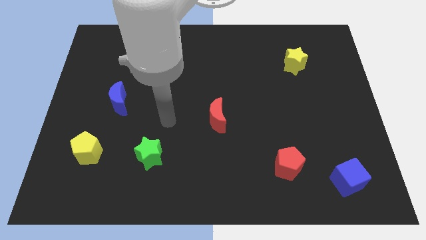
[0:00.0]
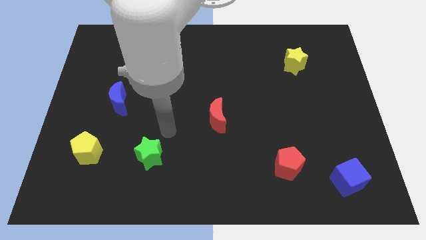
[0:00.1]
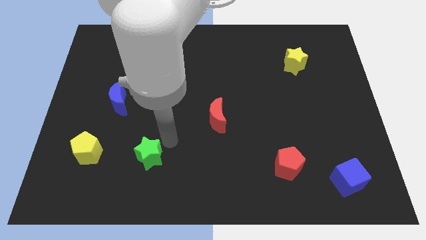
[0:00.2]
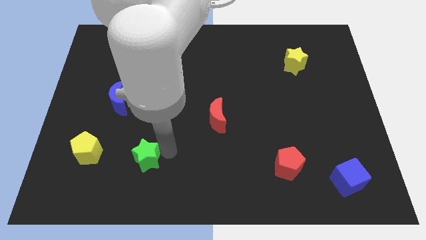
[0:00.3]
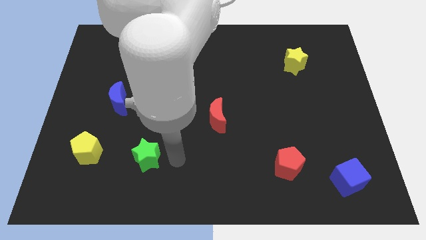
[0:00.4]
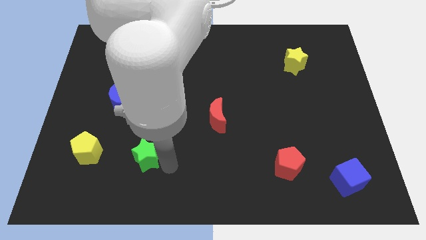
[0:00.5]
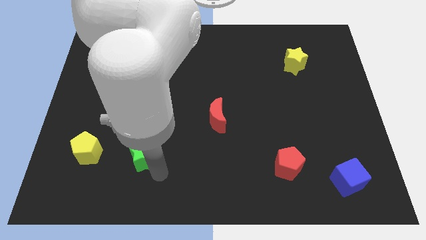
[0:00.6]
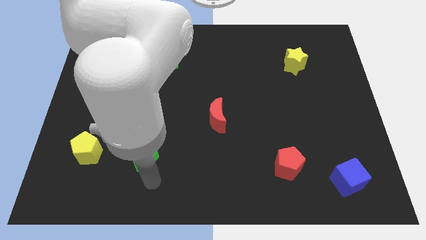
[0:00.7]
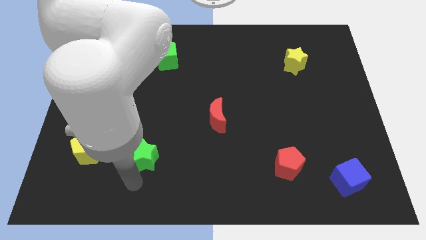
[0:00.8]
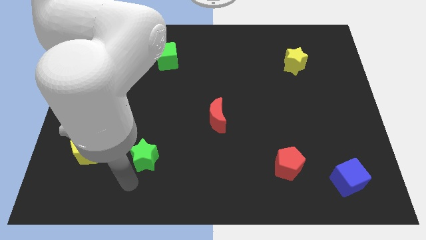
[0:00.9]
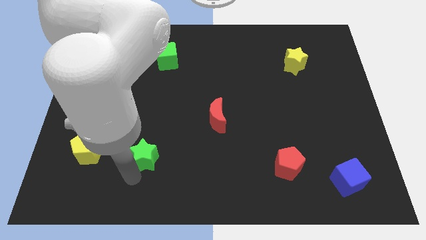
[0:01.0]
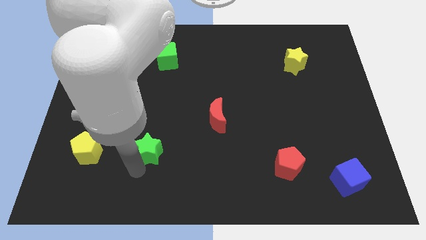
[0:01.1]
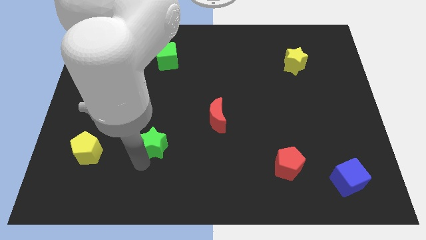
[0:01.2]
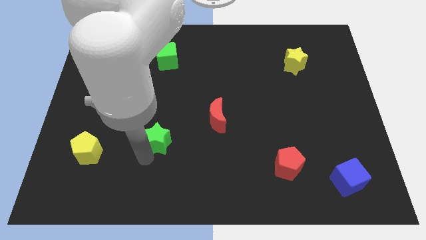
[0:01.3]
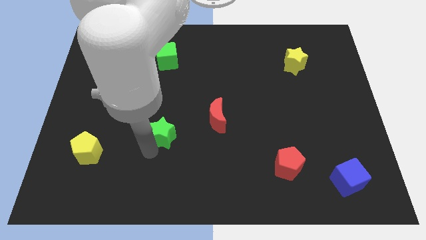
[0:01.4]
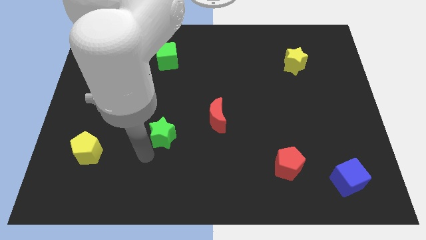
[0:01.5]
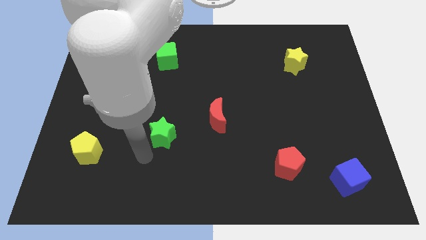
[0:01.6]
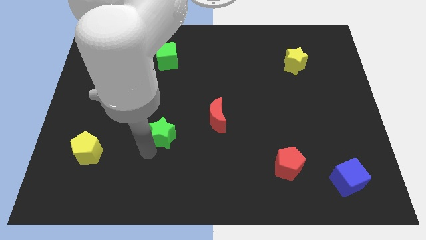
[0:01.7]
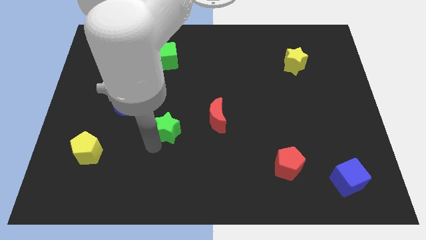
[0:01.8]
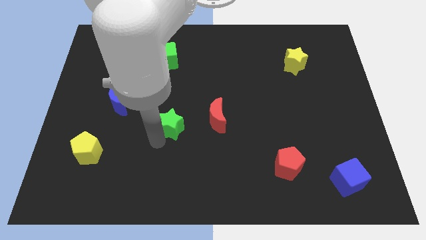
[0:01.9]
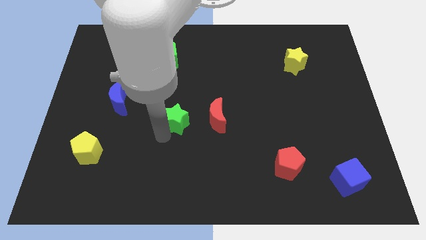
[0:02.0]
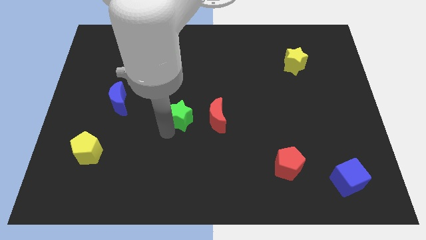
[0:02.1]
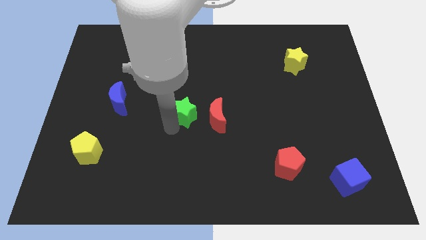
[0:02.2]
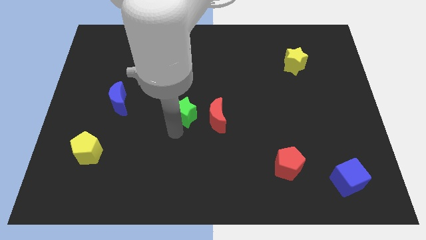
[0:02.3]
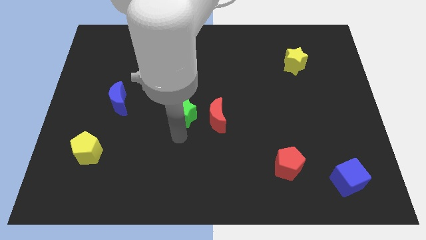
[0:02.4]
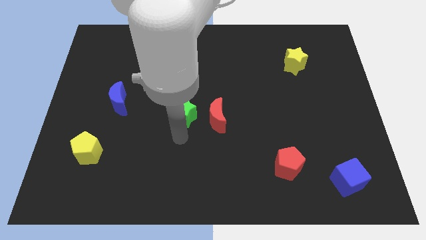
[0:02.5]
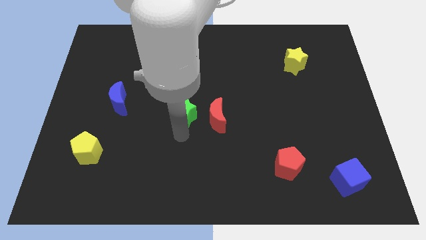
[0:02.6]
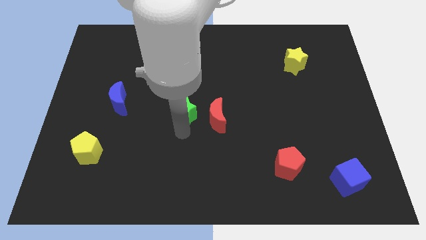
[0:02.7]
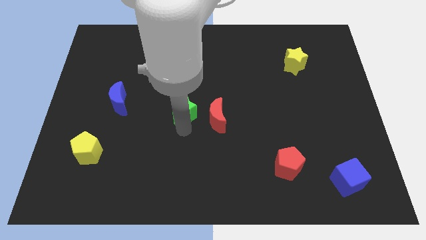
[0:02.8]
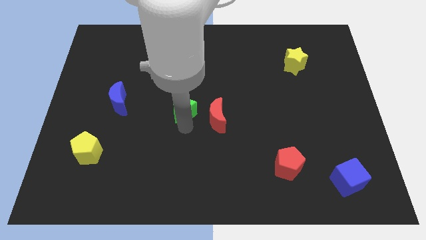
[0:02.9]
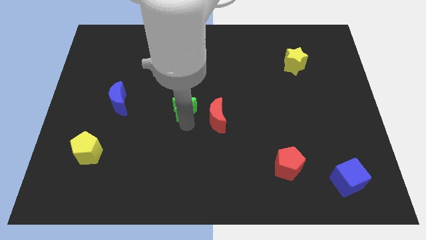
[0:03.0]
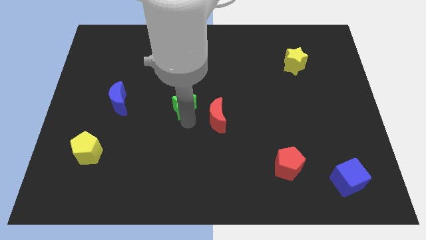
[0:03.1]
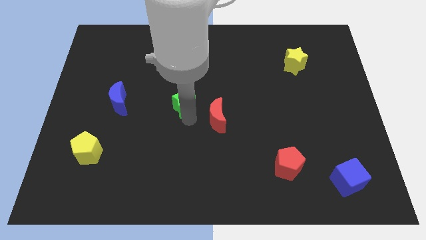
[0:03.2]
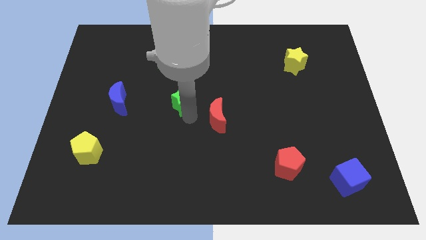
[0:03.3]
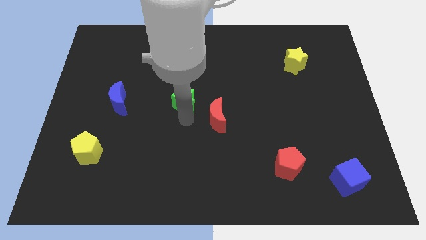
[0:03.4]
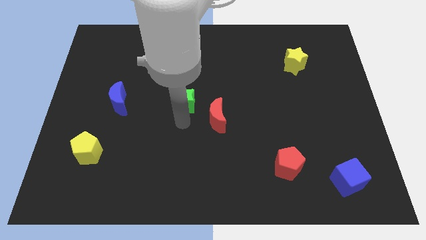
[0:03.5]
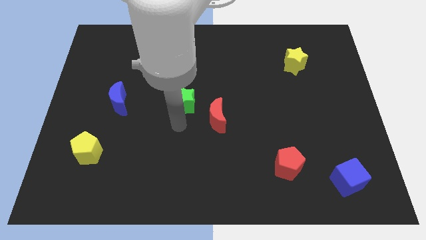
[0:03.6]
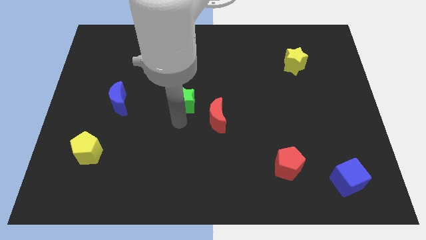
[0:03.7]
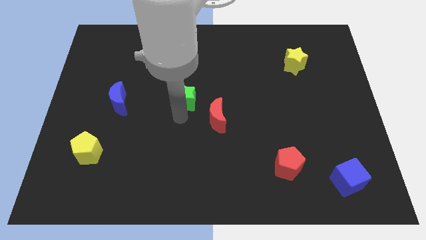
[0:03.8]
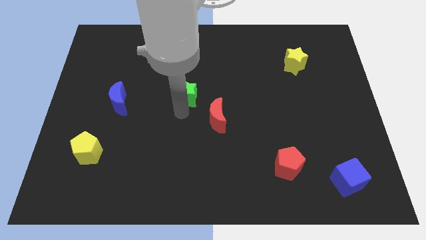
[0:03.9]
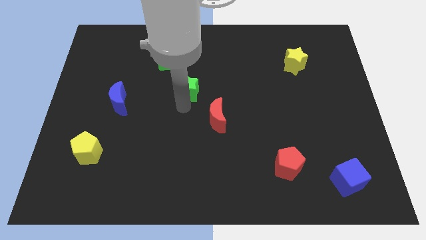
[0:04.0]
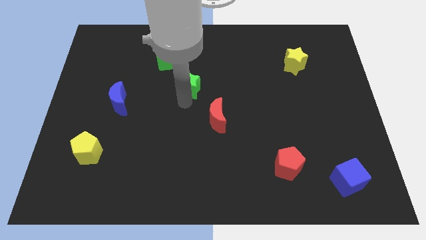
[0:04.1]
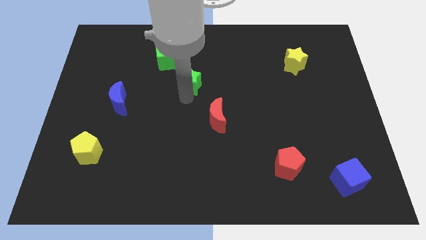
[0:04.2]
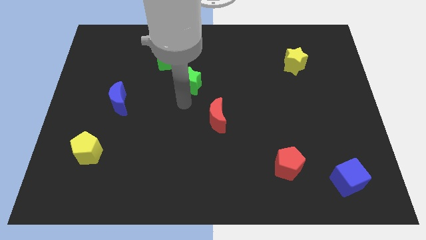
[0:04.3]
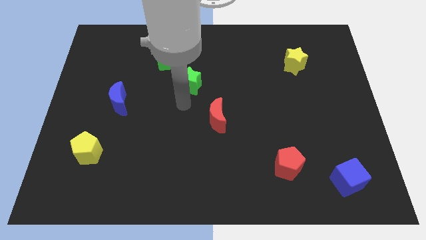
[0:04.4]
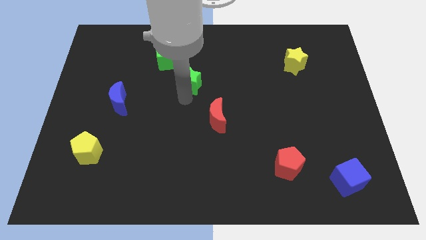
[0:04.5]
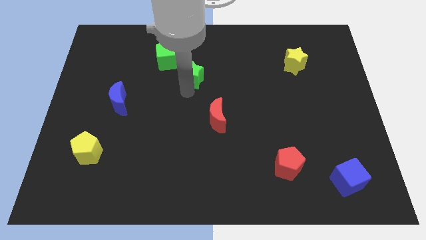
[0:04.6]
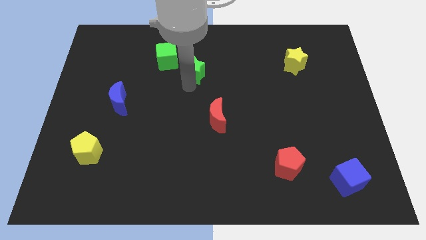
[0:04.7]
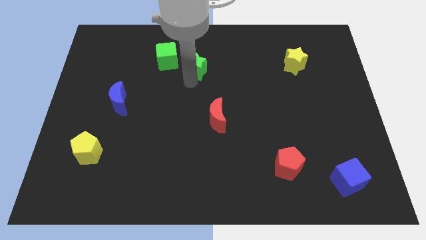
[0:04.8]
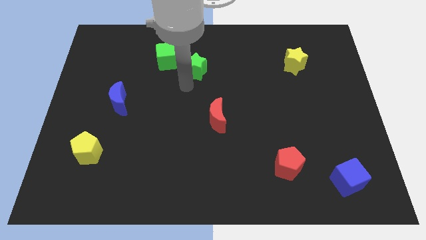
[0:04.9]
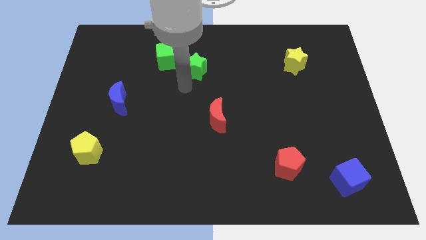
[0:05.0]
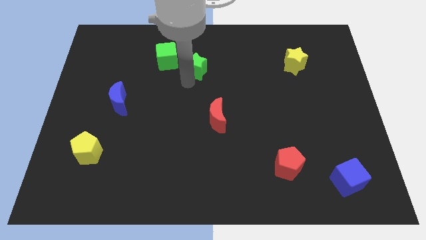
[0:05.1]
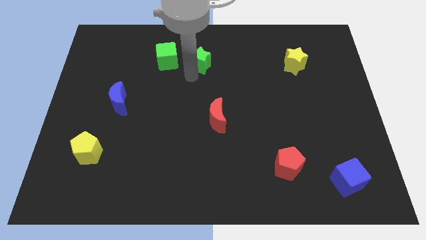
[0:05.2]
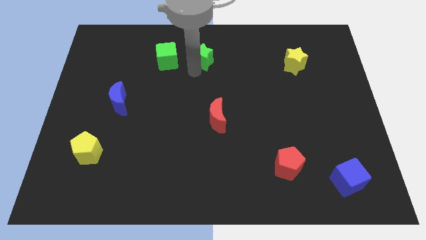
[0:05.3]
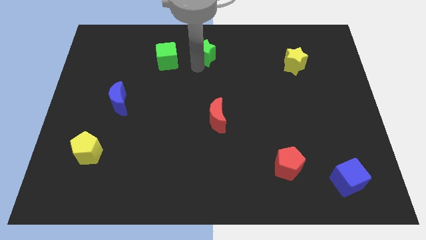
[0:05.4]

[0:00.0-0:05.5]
slide the green star to the top
